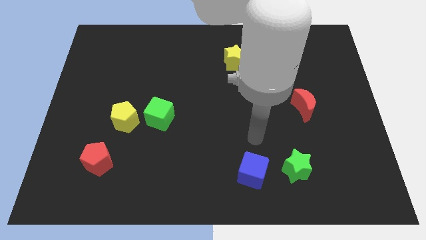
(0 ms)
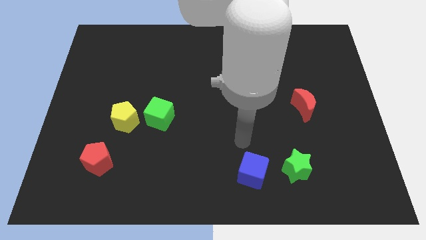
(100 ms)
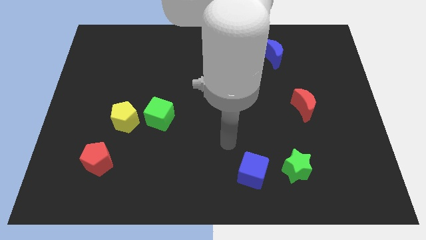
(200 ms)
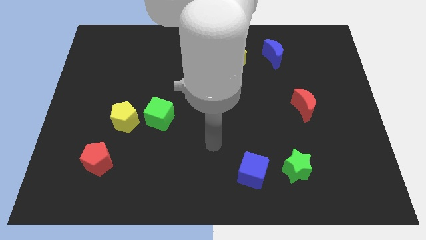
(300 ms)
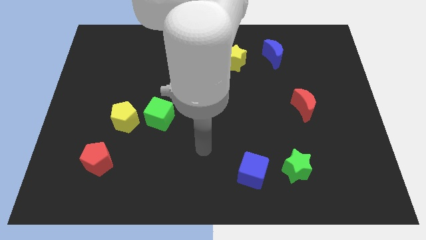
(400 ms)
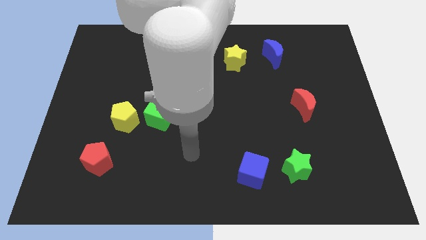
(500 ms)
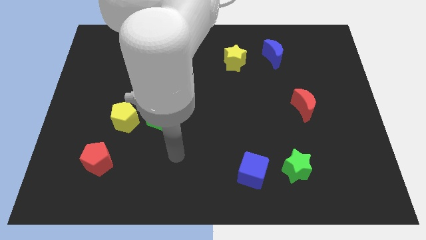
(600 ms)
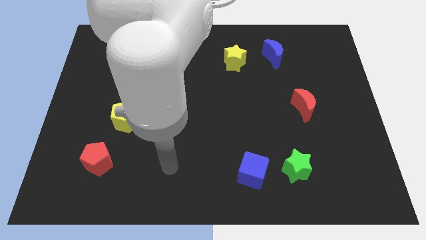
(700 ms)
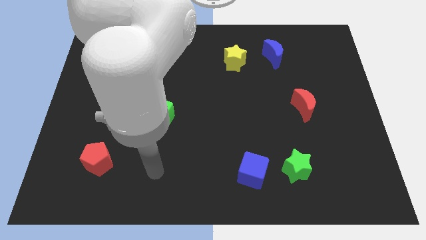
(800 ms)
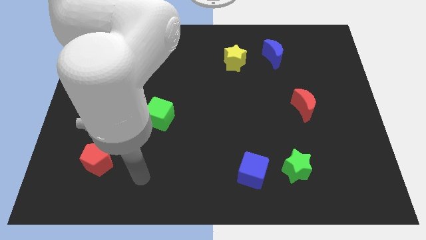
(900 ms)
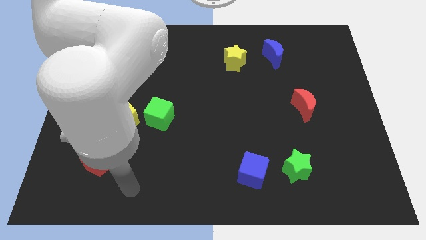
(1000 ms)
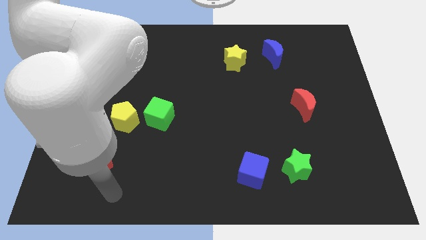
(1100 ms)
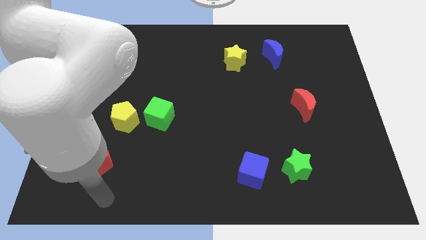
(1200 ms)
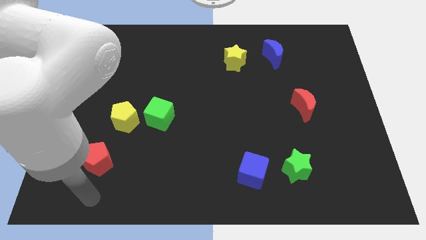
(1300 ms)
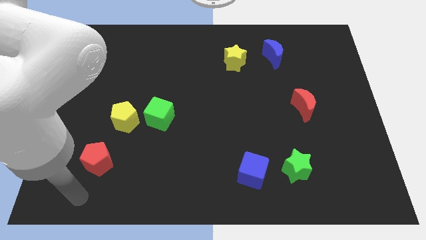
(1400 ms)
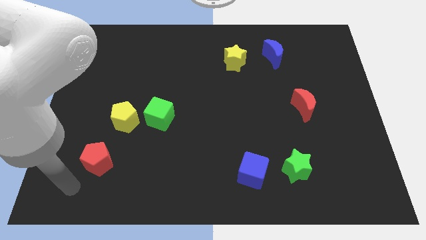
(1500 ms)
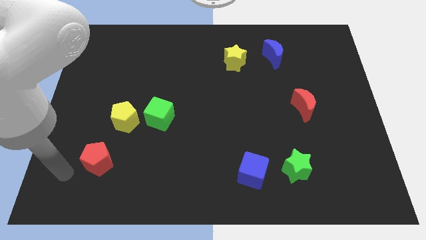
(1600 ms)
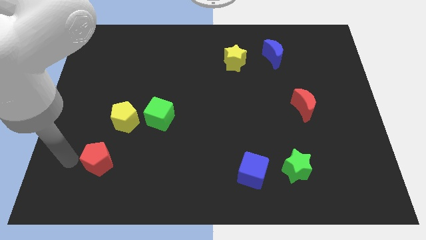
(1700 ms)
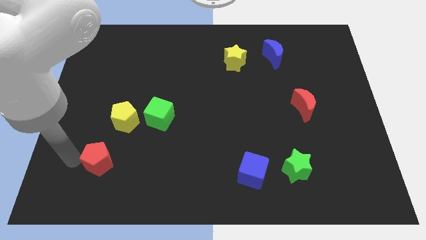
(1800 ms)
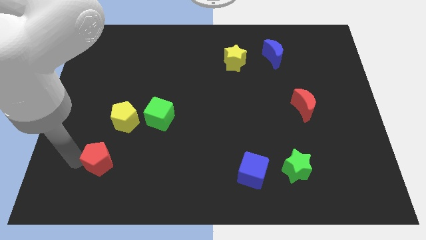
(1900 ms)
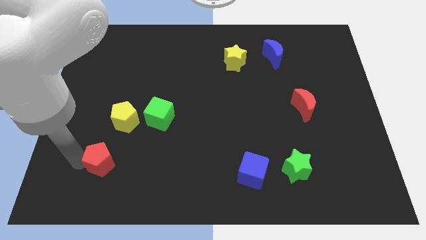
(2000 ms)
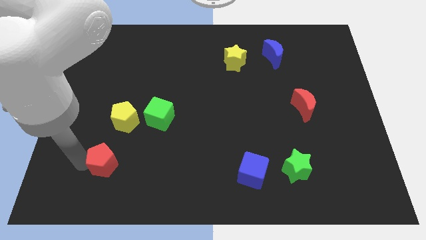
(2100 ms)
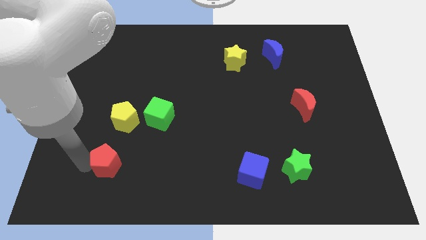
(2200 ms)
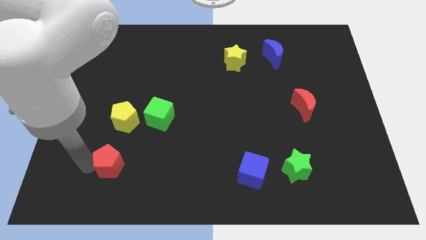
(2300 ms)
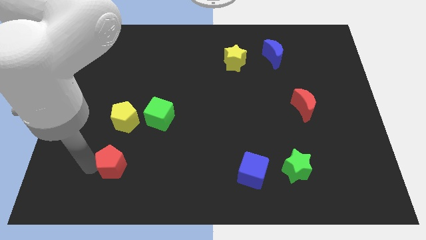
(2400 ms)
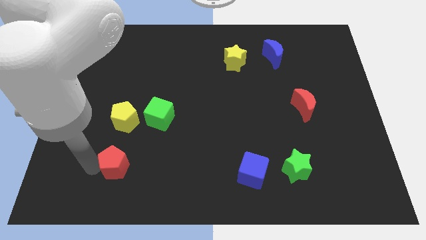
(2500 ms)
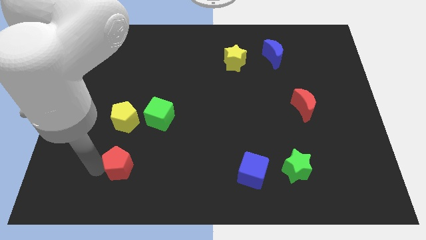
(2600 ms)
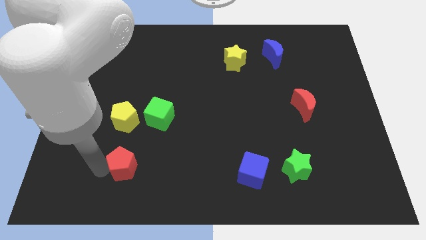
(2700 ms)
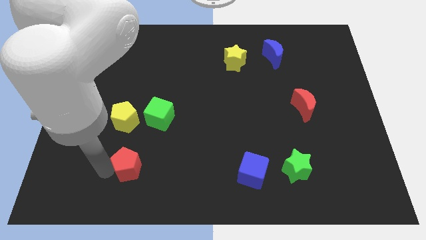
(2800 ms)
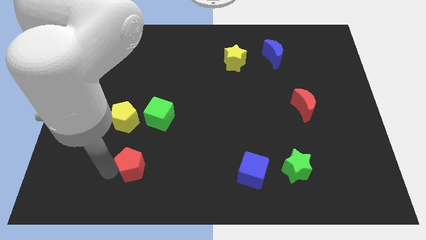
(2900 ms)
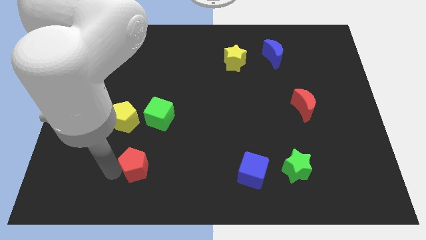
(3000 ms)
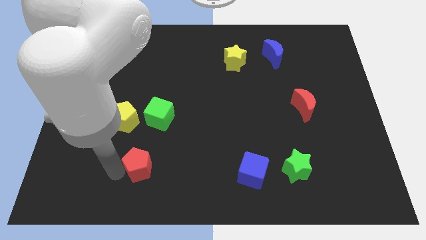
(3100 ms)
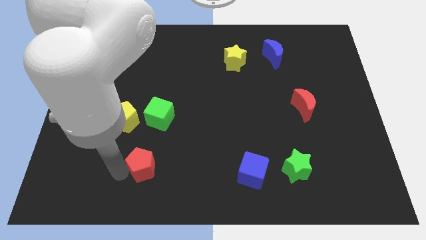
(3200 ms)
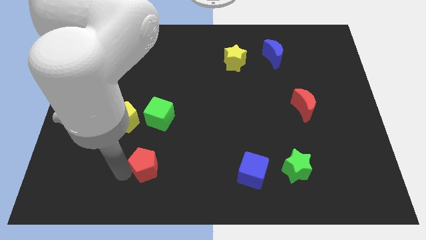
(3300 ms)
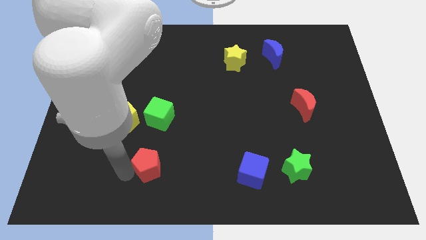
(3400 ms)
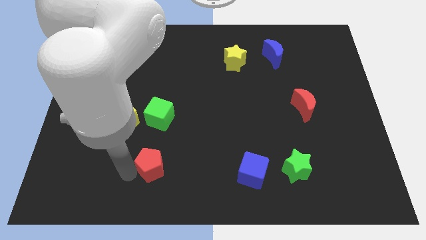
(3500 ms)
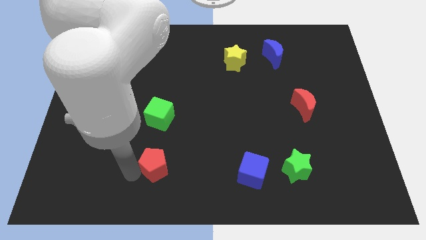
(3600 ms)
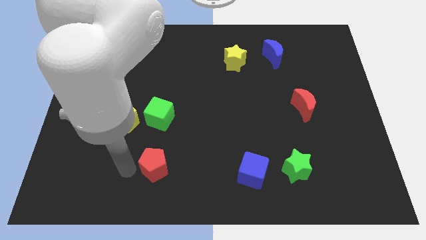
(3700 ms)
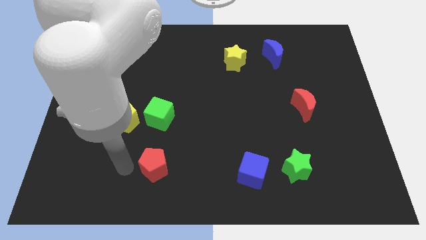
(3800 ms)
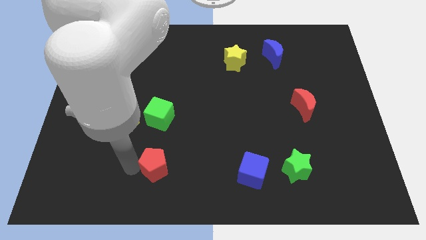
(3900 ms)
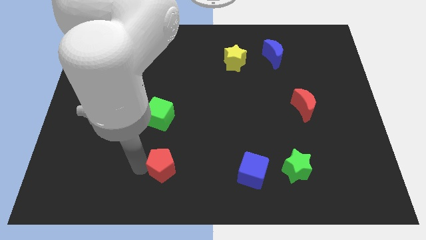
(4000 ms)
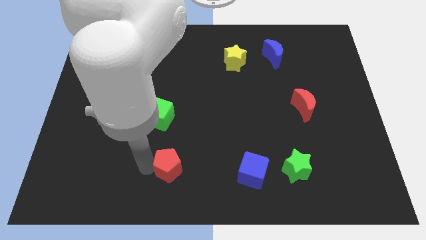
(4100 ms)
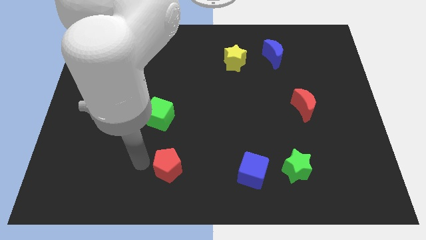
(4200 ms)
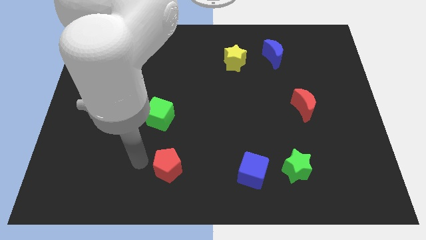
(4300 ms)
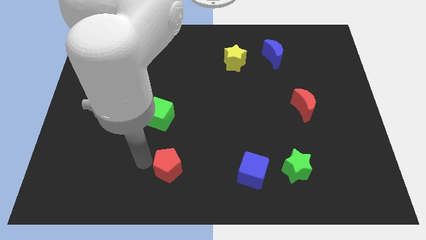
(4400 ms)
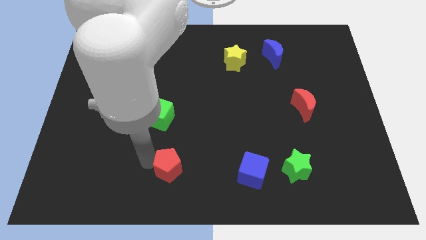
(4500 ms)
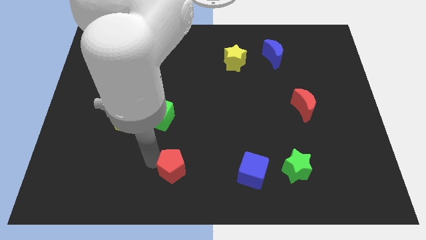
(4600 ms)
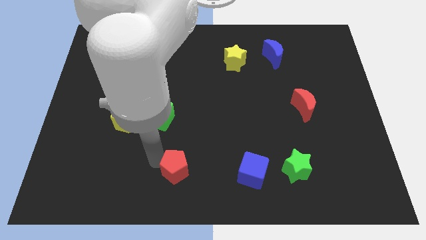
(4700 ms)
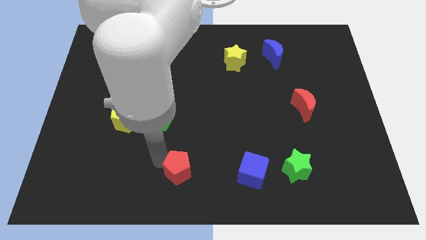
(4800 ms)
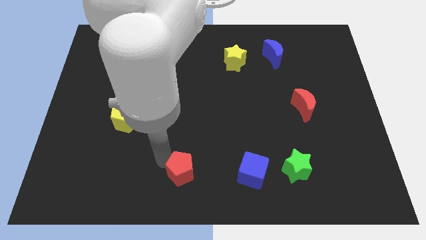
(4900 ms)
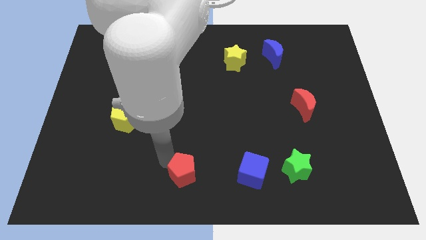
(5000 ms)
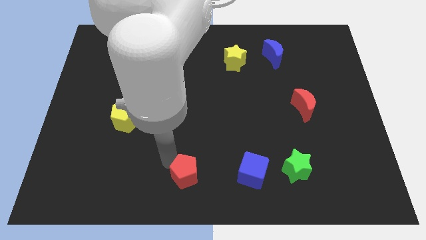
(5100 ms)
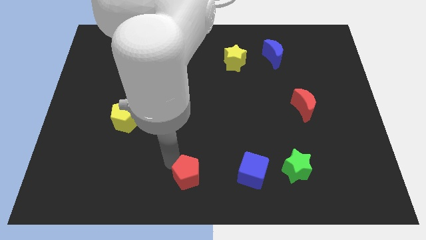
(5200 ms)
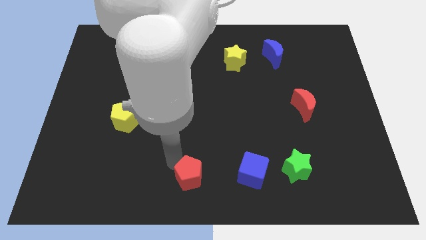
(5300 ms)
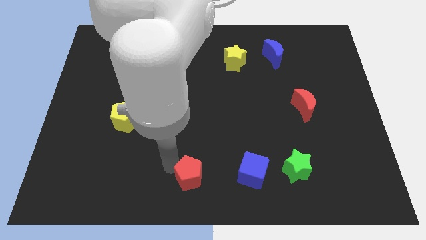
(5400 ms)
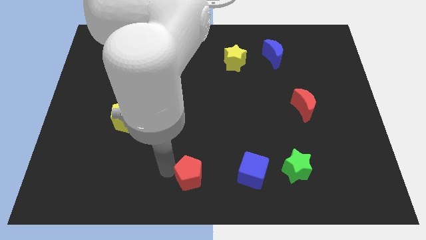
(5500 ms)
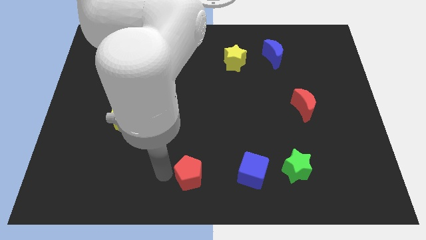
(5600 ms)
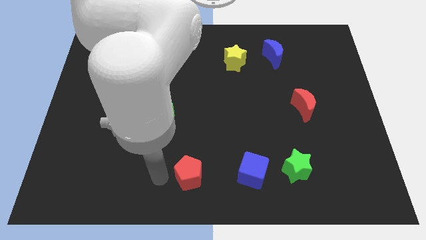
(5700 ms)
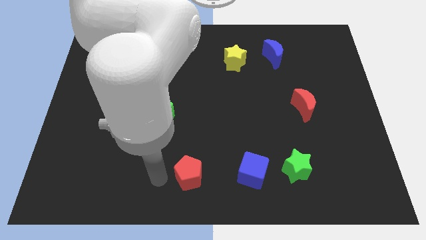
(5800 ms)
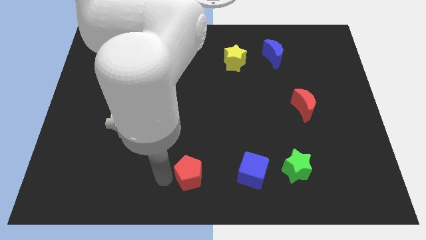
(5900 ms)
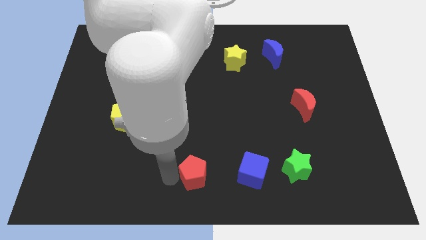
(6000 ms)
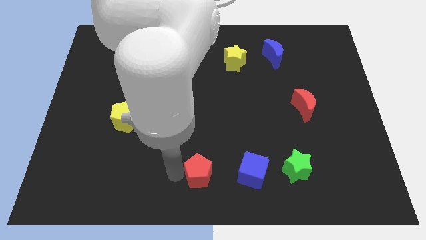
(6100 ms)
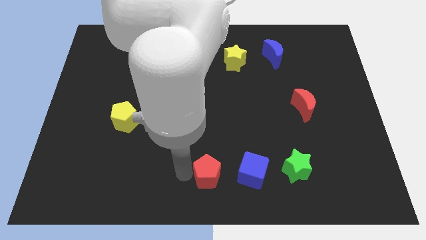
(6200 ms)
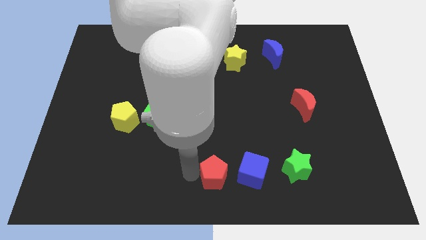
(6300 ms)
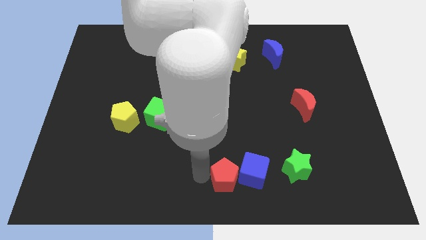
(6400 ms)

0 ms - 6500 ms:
move the red pentagon next to the blue cube
